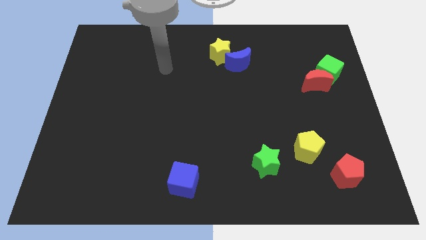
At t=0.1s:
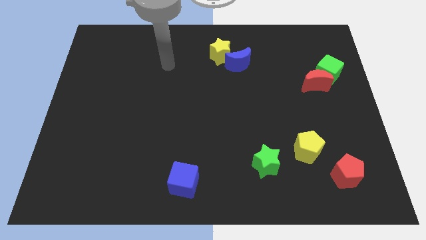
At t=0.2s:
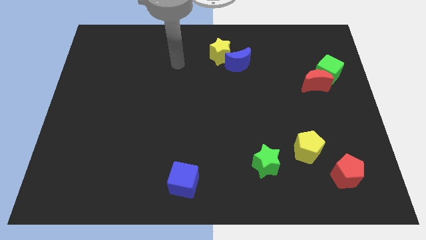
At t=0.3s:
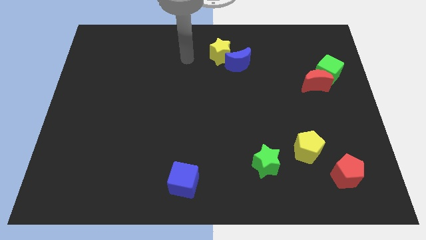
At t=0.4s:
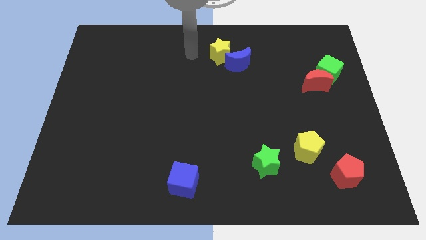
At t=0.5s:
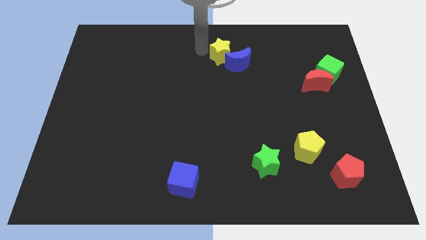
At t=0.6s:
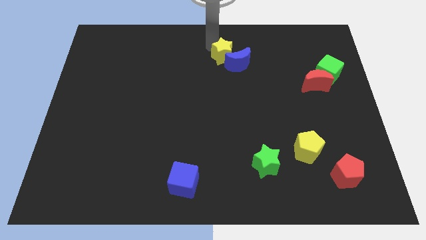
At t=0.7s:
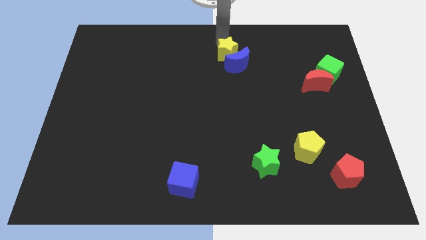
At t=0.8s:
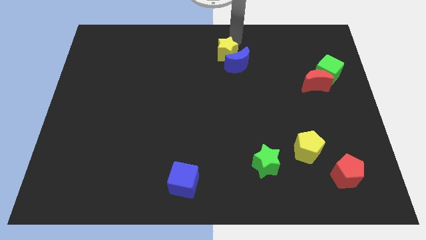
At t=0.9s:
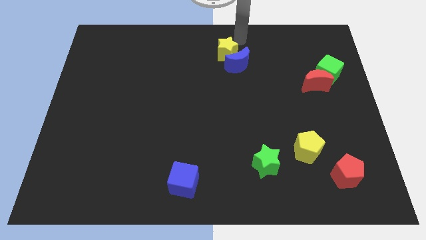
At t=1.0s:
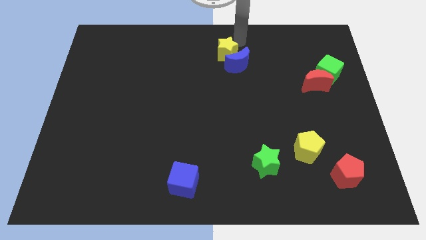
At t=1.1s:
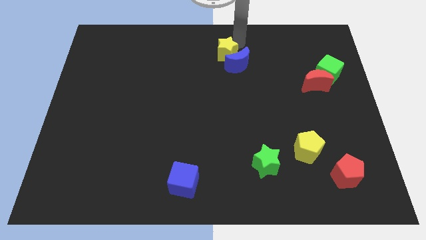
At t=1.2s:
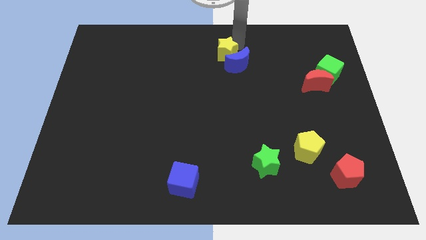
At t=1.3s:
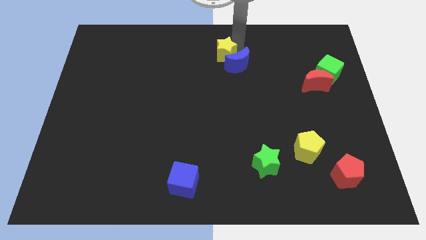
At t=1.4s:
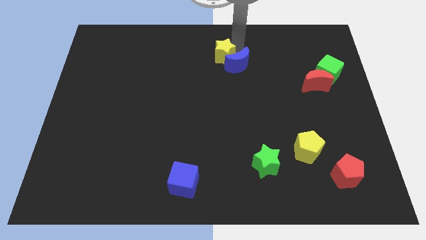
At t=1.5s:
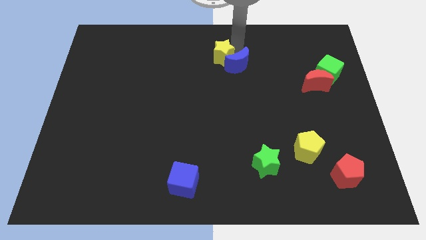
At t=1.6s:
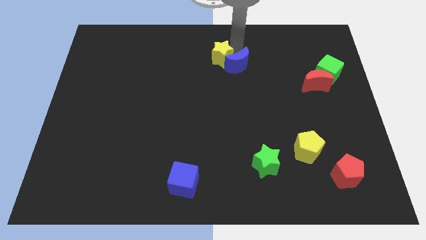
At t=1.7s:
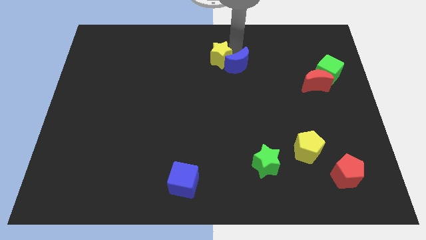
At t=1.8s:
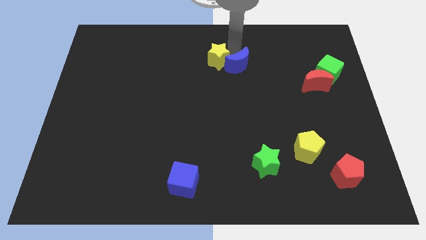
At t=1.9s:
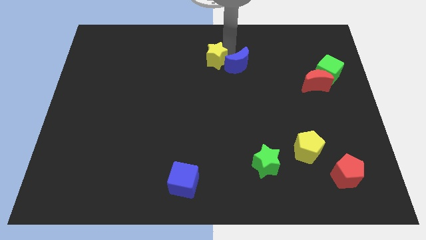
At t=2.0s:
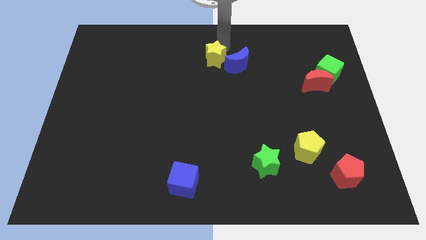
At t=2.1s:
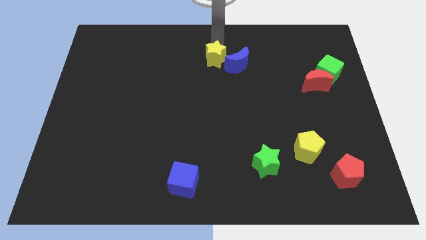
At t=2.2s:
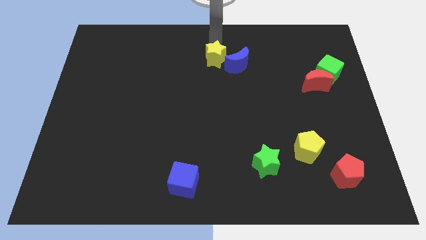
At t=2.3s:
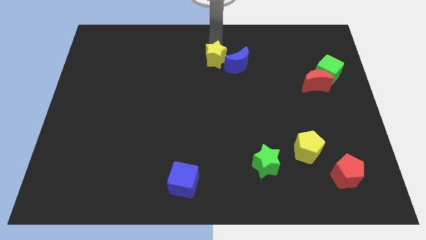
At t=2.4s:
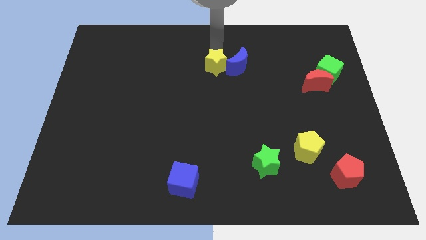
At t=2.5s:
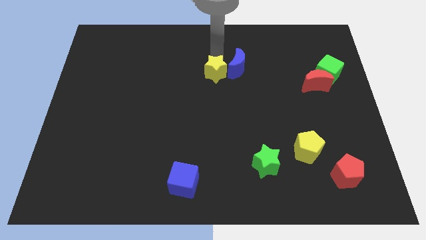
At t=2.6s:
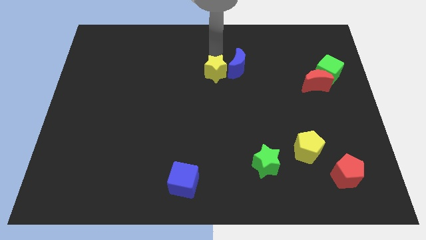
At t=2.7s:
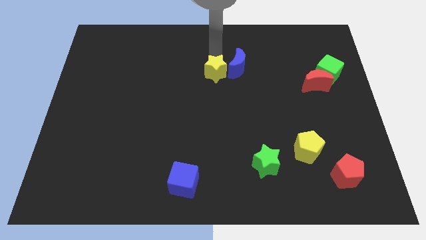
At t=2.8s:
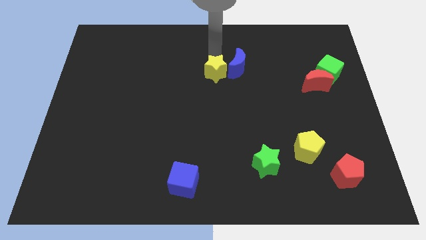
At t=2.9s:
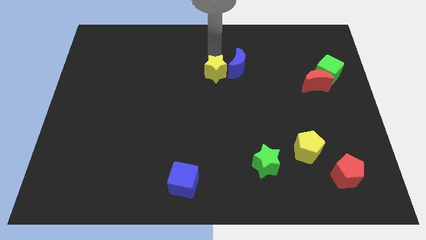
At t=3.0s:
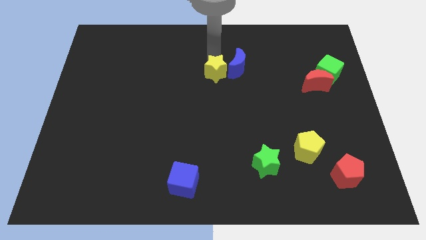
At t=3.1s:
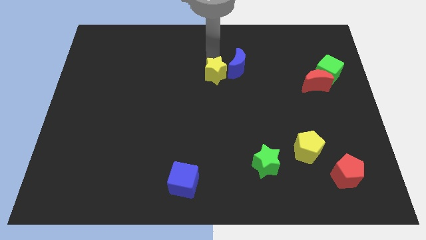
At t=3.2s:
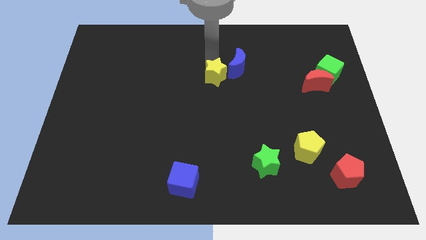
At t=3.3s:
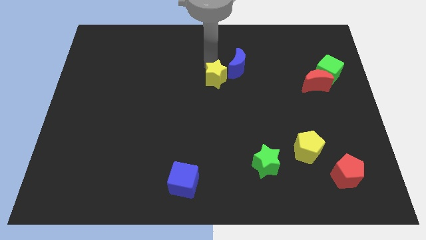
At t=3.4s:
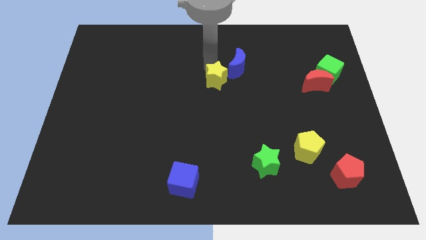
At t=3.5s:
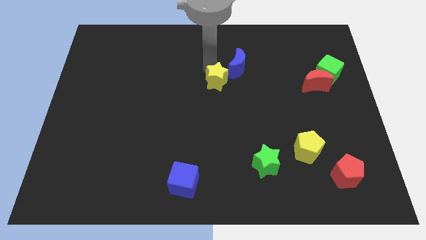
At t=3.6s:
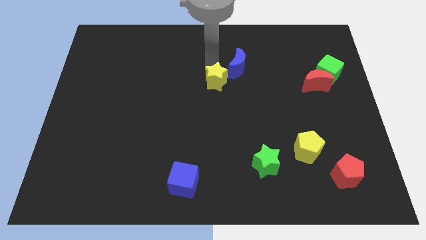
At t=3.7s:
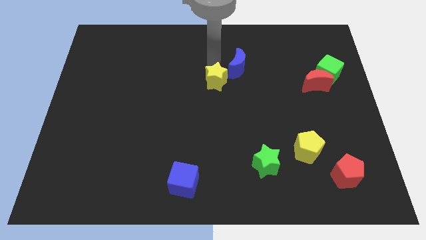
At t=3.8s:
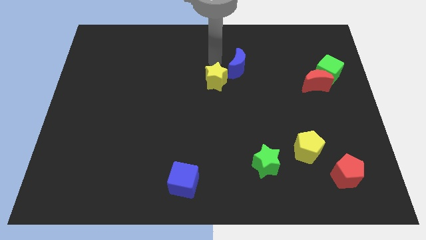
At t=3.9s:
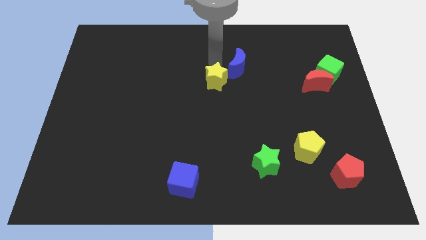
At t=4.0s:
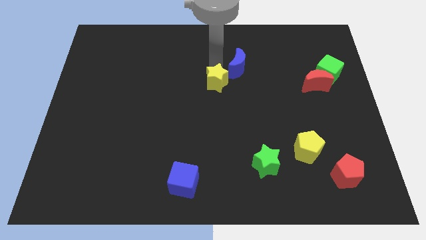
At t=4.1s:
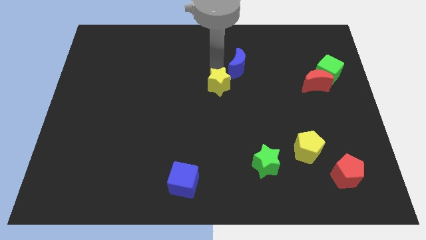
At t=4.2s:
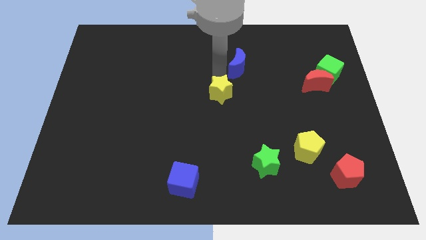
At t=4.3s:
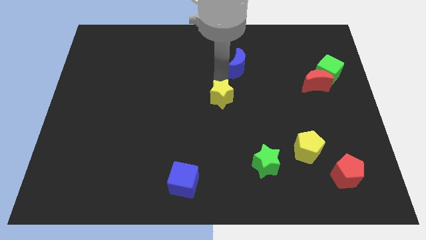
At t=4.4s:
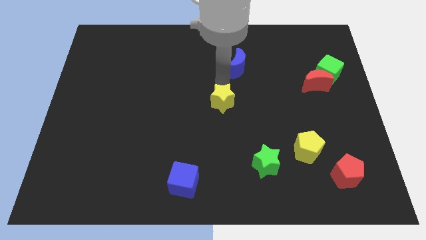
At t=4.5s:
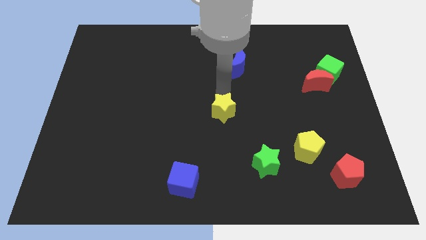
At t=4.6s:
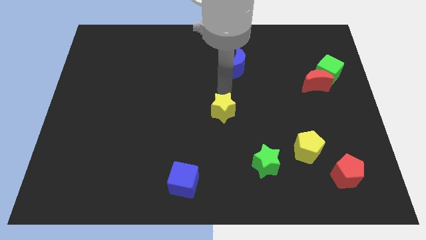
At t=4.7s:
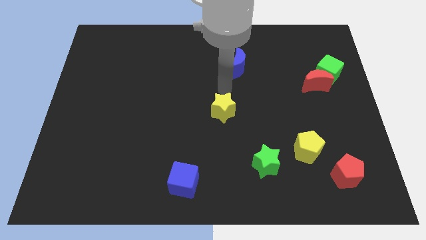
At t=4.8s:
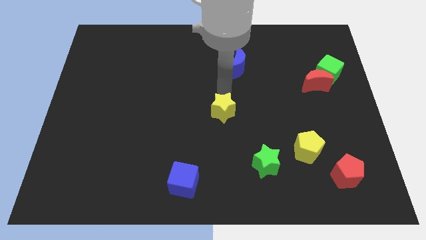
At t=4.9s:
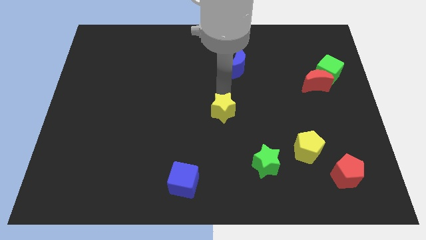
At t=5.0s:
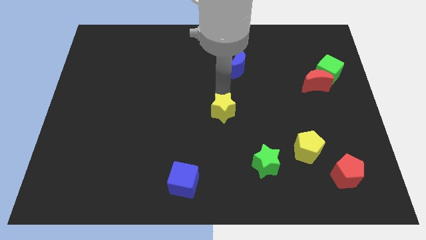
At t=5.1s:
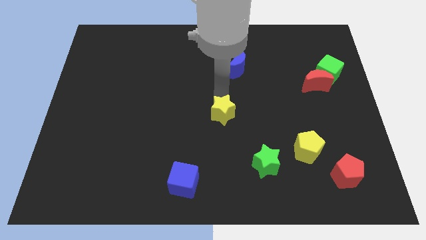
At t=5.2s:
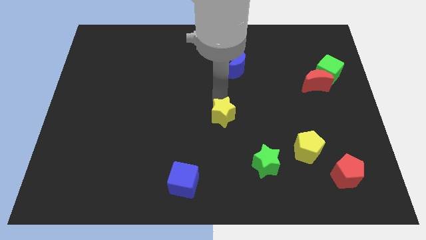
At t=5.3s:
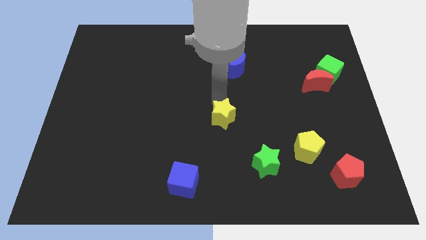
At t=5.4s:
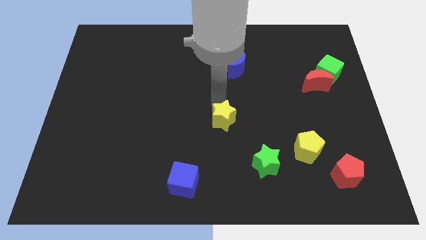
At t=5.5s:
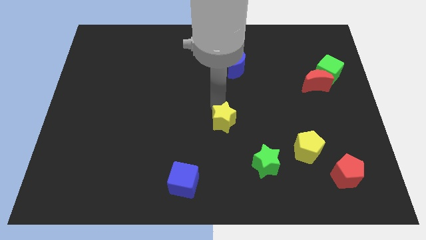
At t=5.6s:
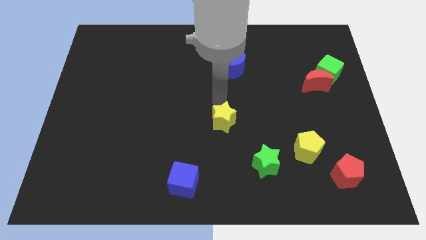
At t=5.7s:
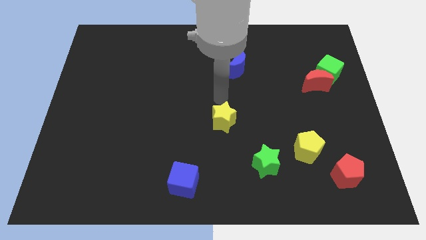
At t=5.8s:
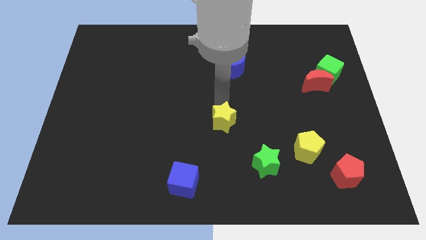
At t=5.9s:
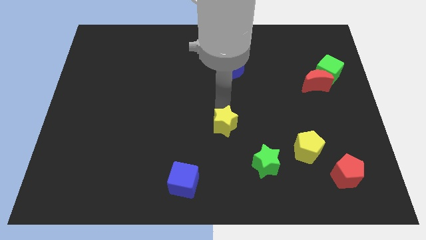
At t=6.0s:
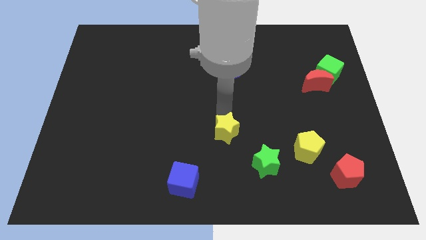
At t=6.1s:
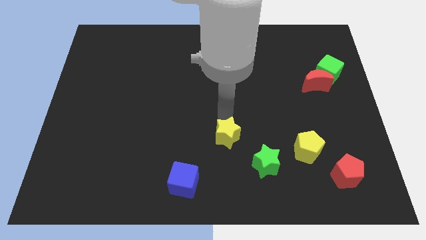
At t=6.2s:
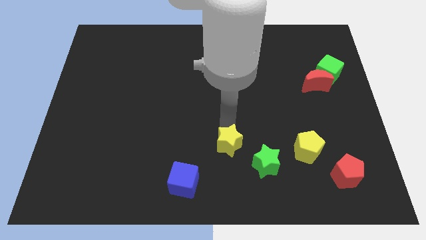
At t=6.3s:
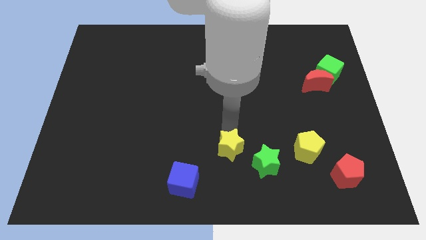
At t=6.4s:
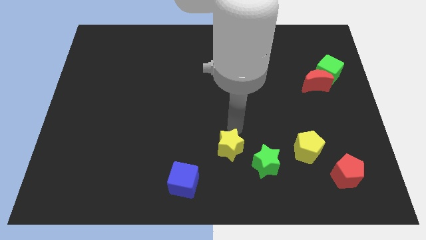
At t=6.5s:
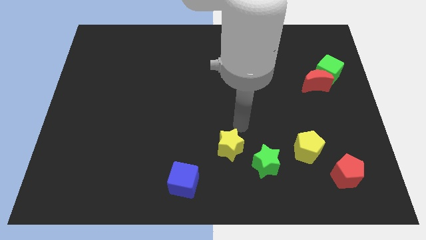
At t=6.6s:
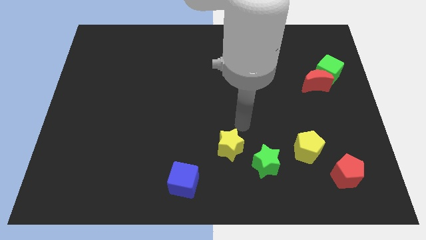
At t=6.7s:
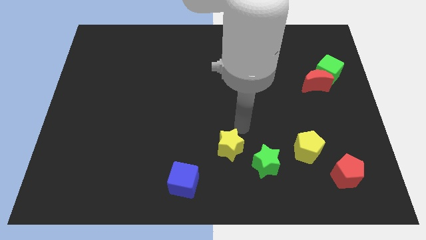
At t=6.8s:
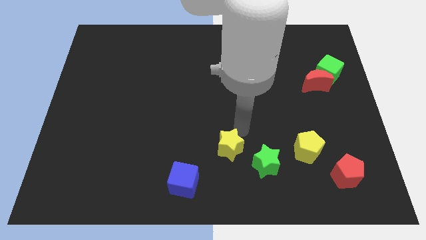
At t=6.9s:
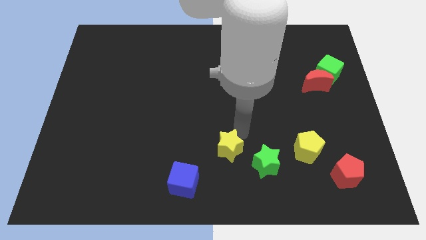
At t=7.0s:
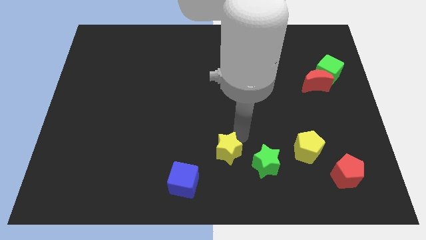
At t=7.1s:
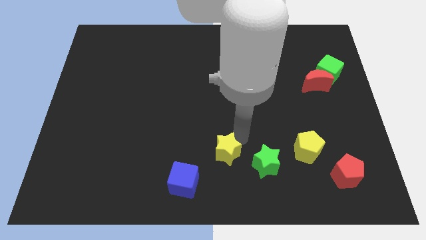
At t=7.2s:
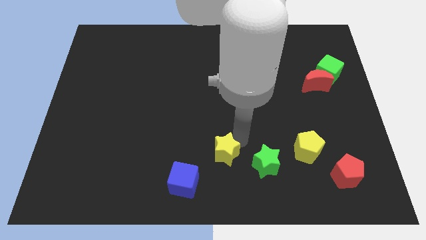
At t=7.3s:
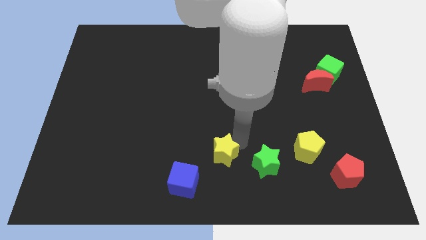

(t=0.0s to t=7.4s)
slide the yellow star to the bottom side
